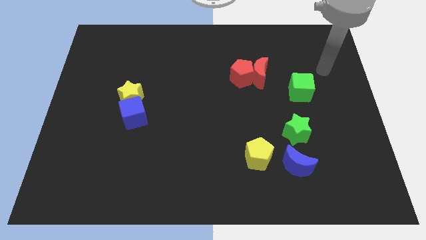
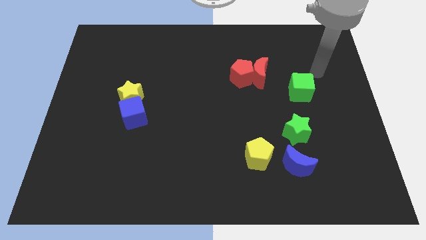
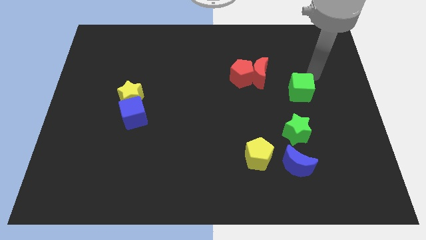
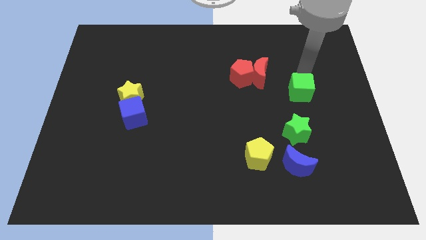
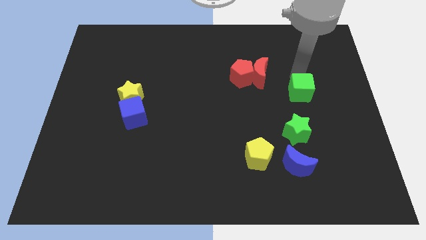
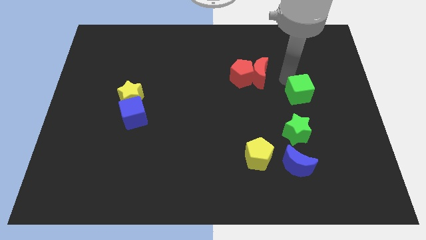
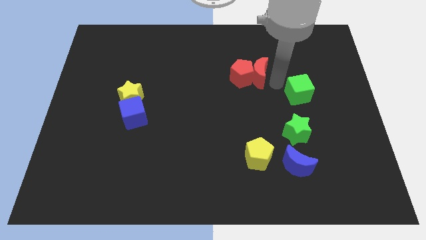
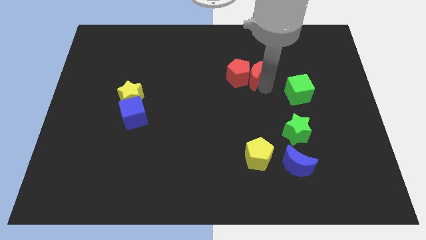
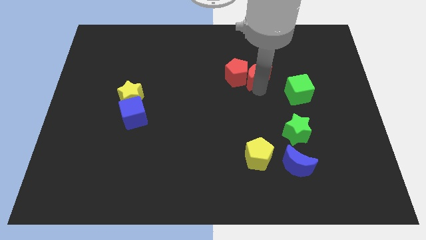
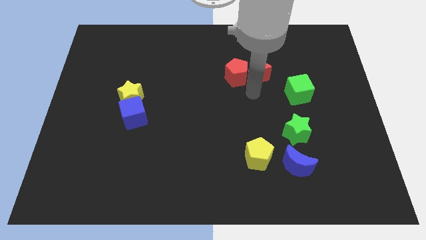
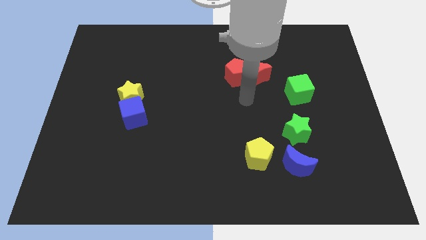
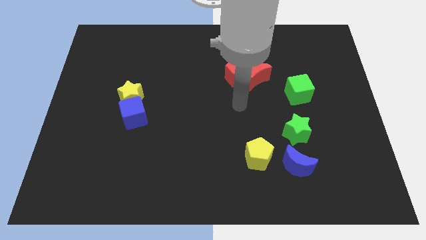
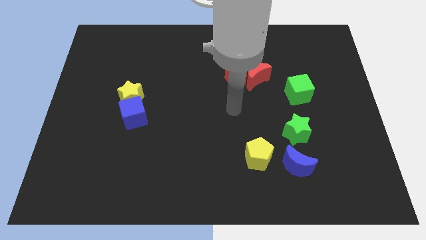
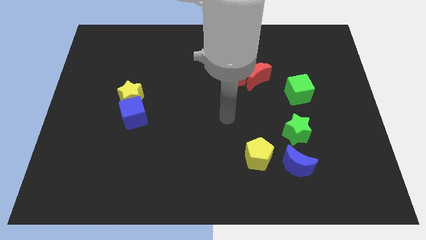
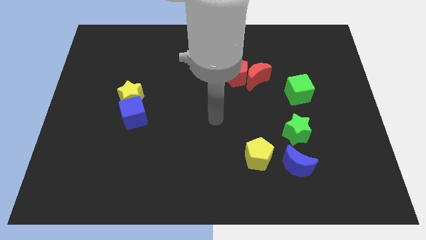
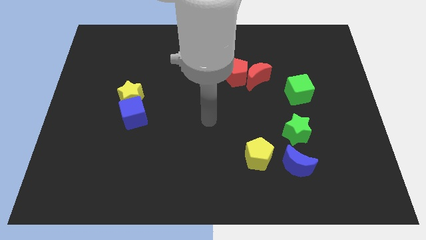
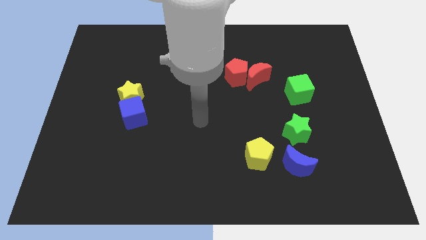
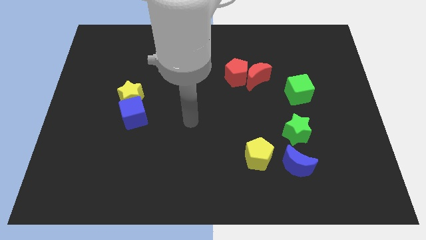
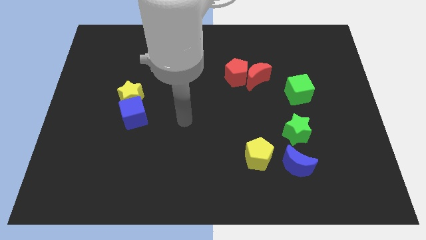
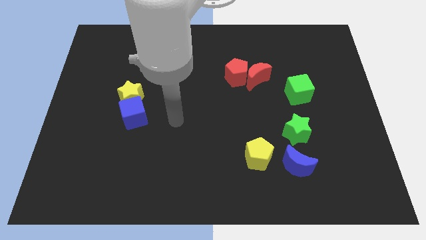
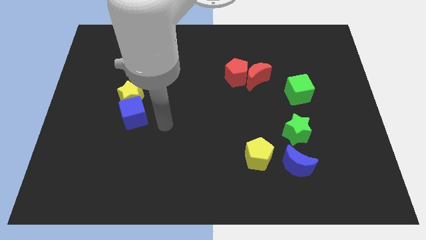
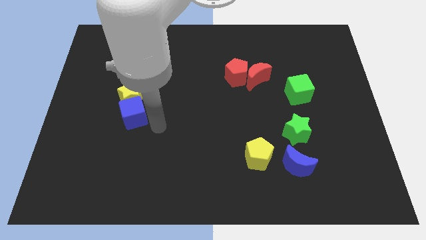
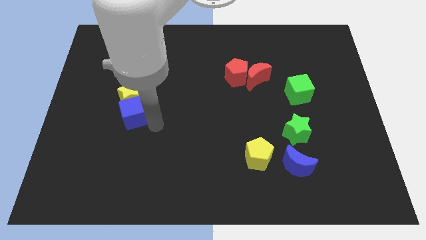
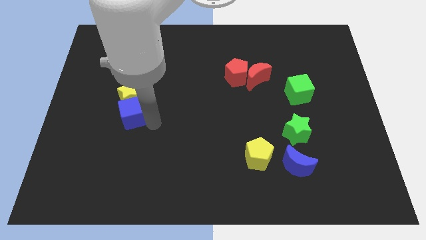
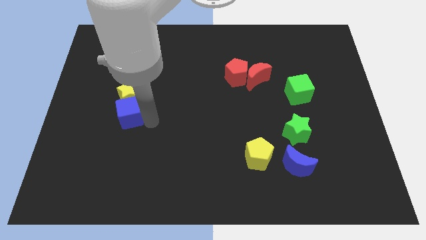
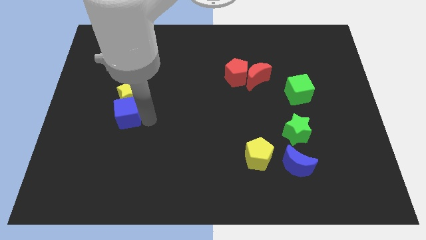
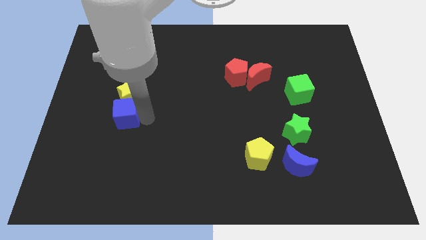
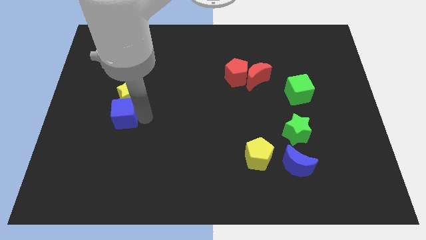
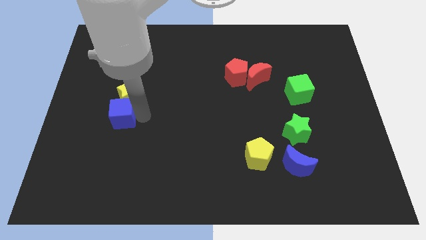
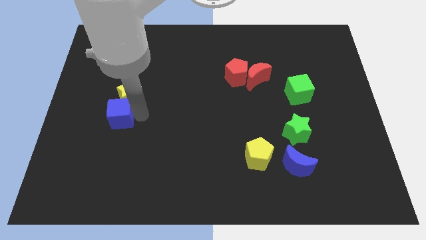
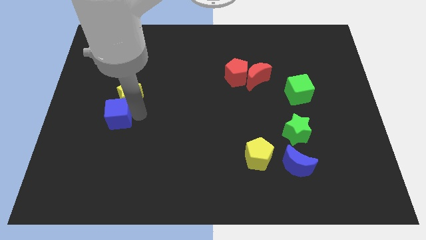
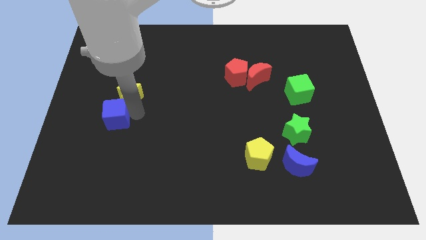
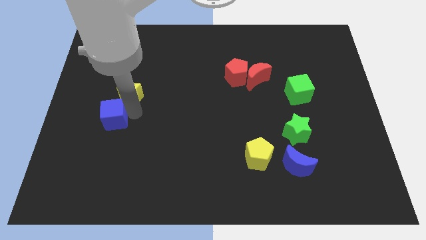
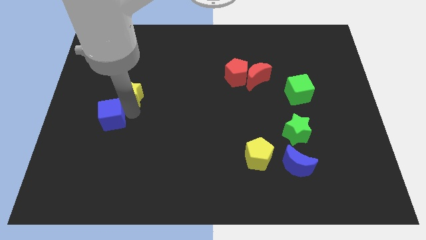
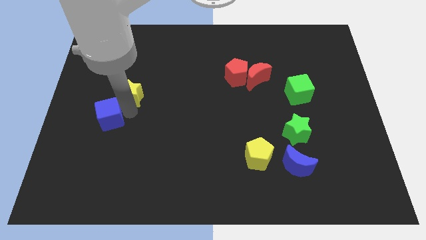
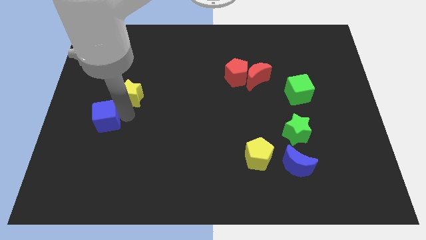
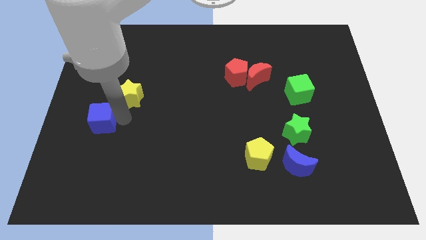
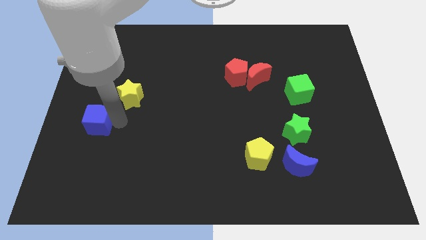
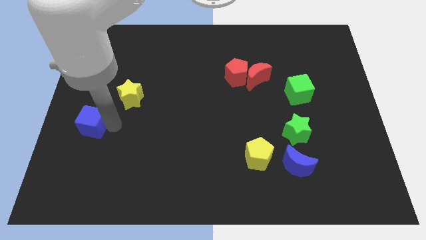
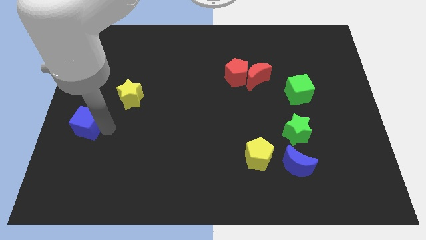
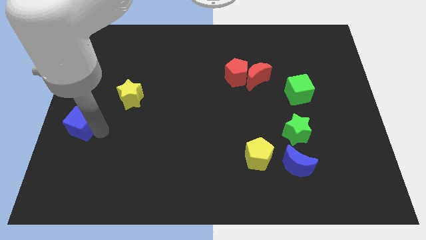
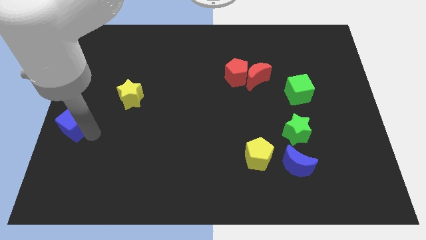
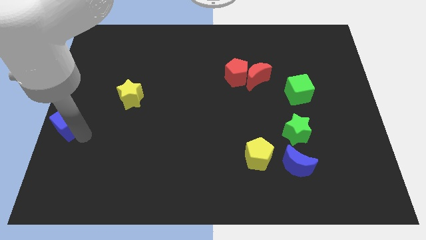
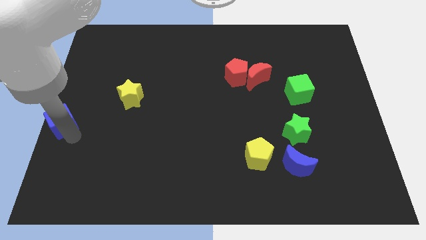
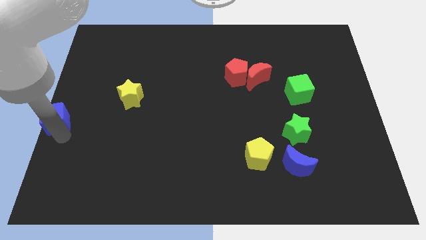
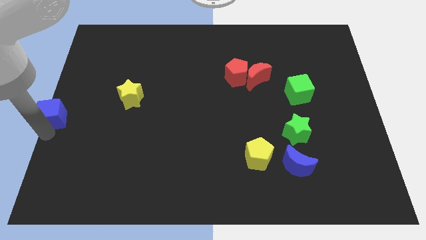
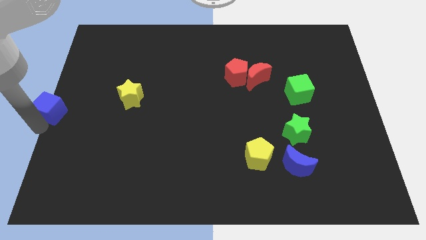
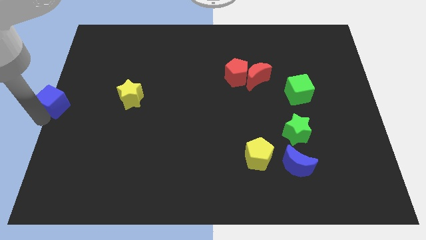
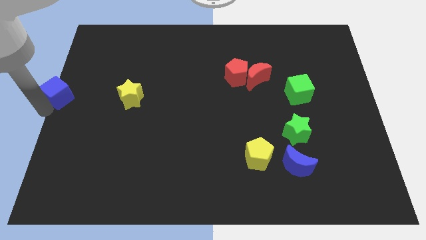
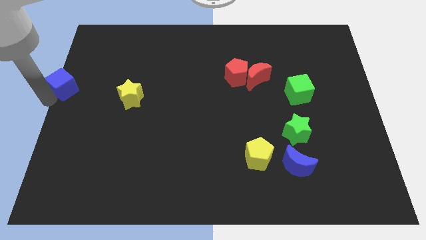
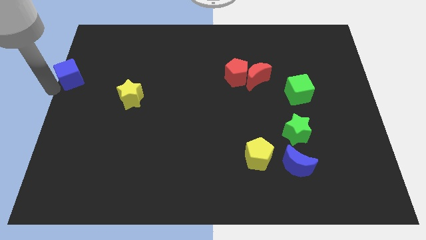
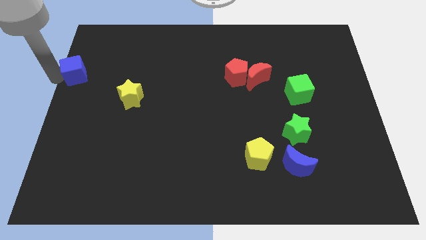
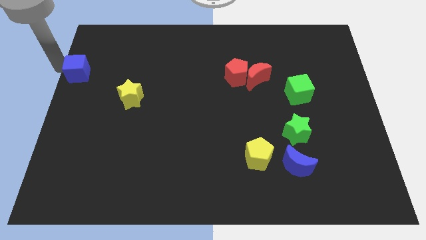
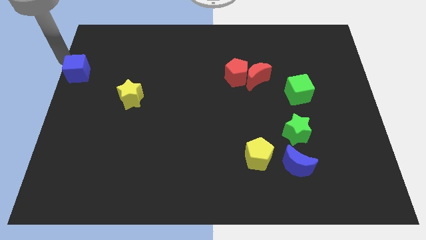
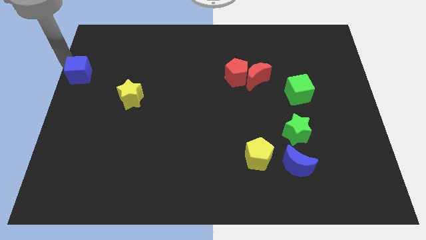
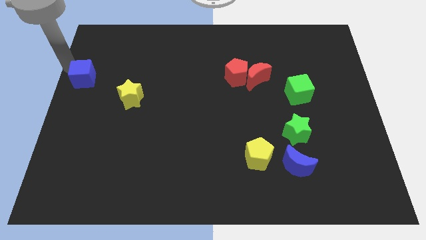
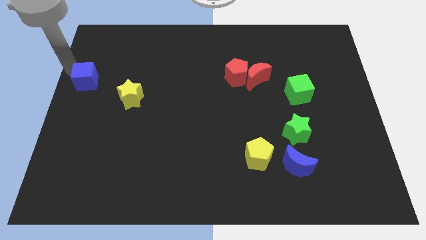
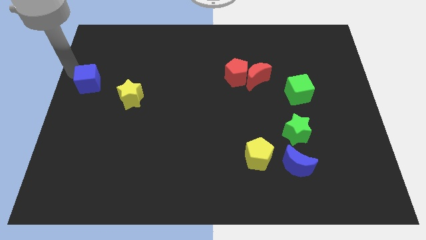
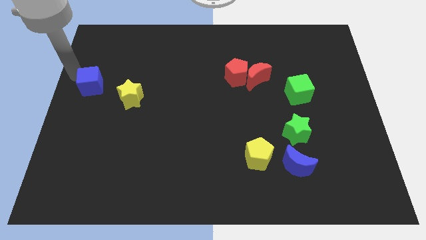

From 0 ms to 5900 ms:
slide the blue cube to the top left side of the yellow star

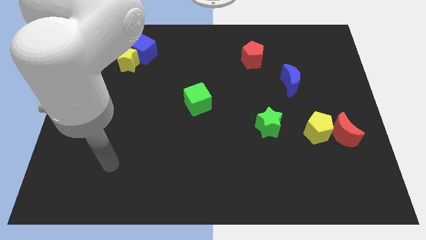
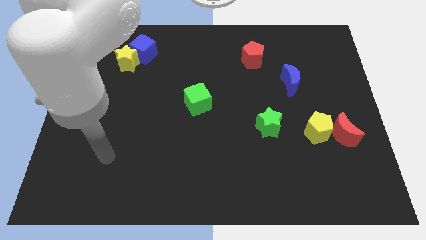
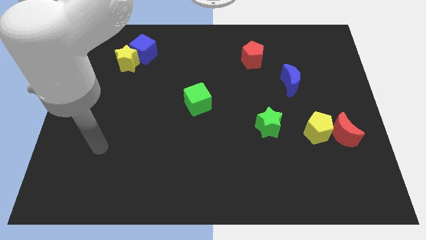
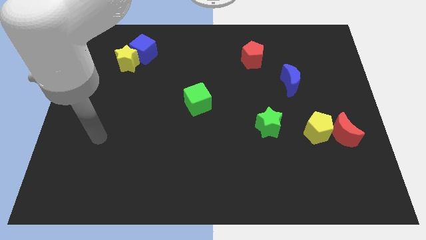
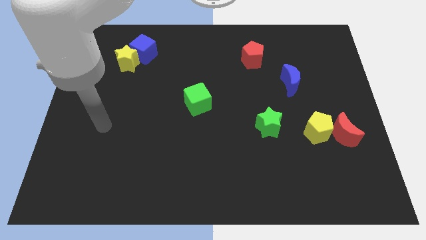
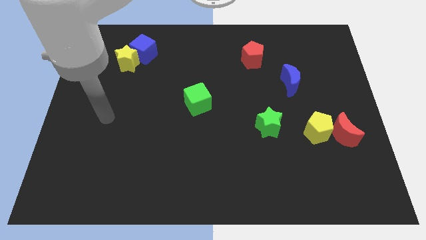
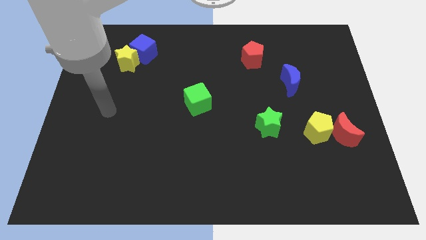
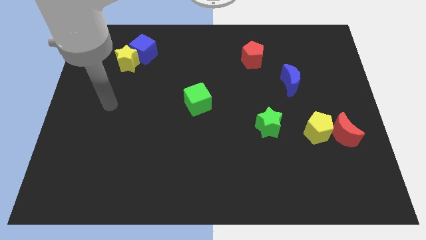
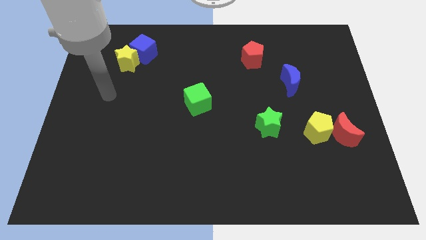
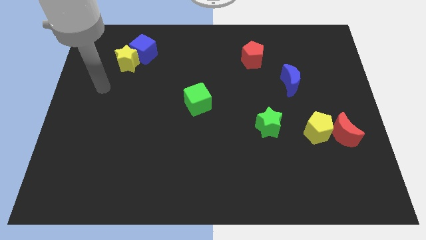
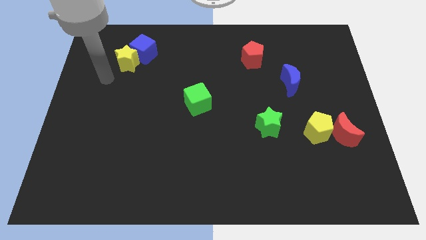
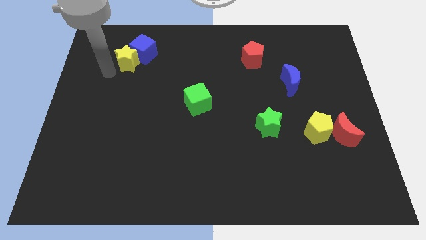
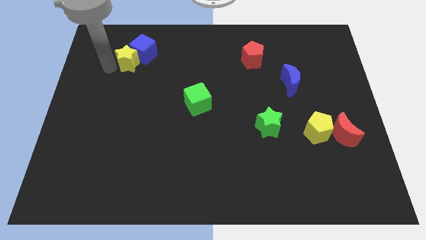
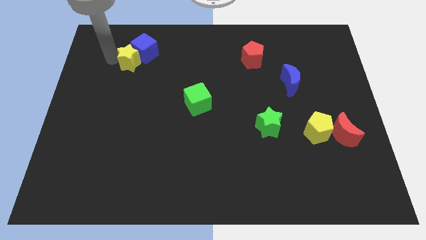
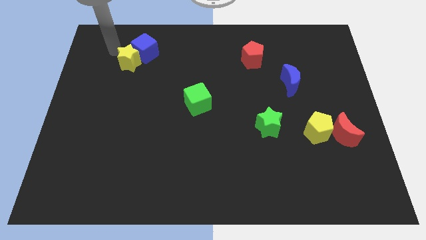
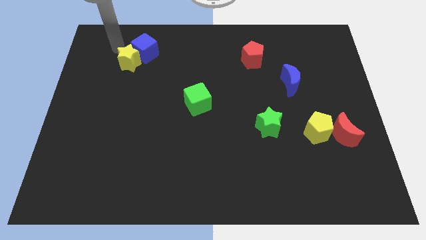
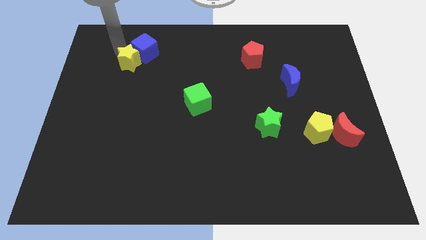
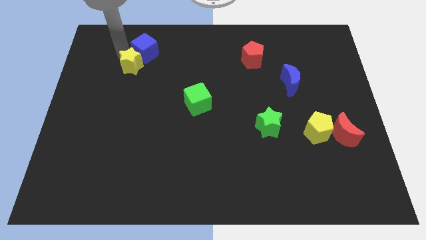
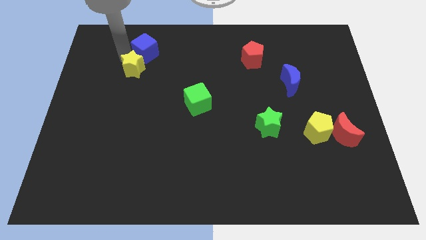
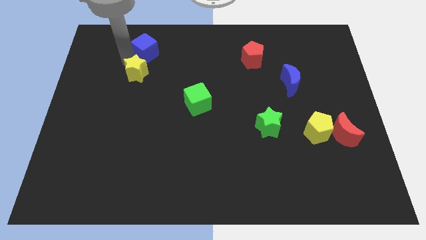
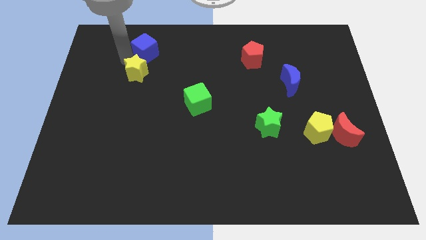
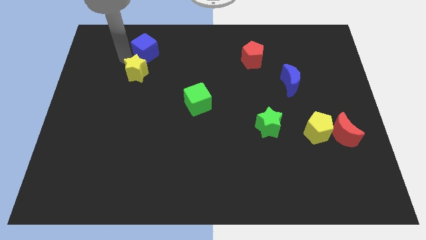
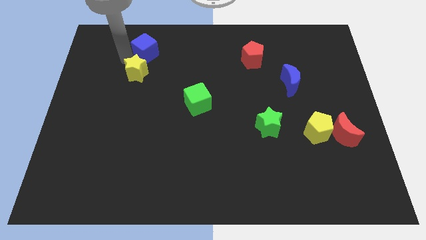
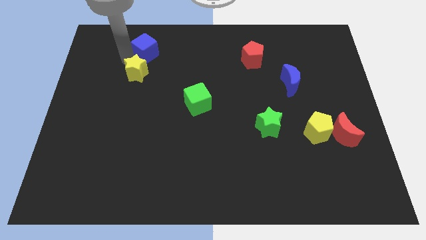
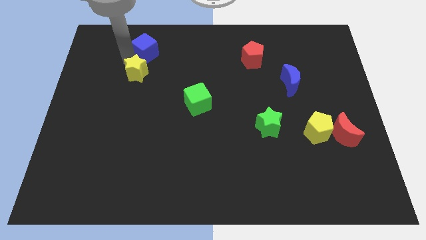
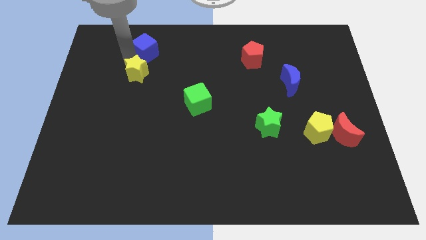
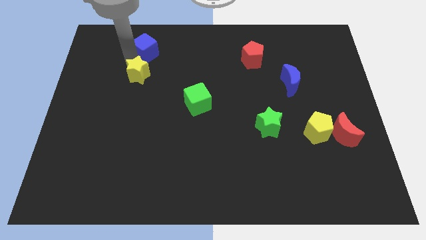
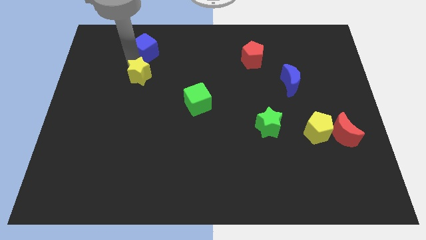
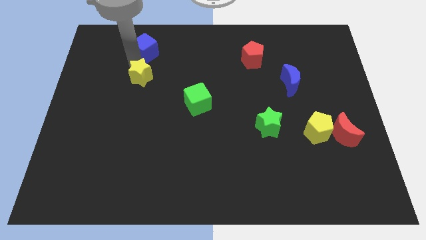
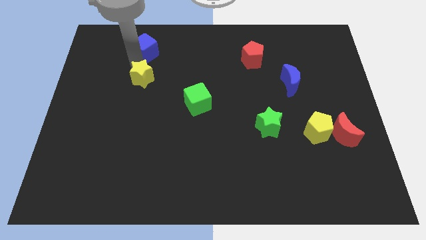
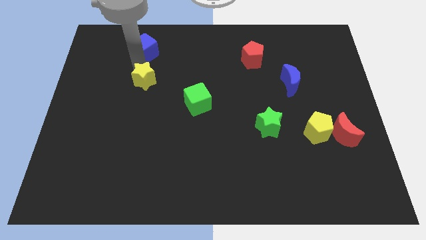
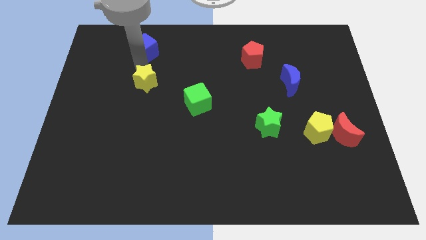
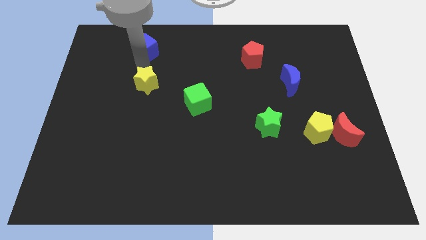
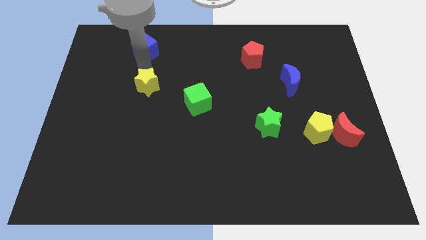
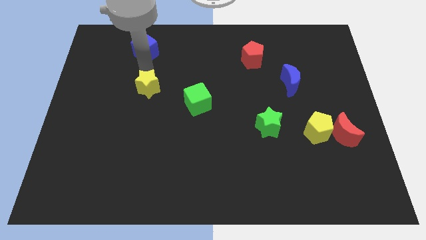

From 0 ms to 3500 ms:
push the yellow star left of the green cube
